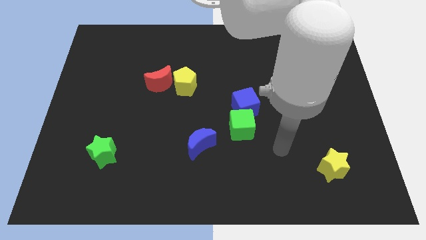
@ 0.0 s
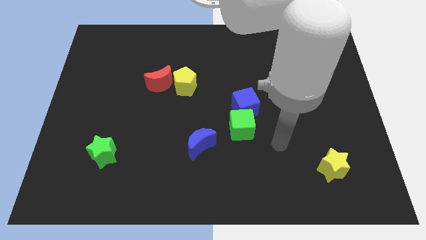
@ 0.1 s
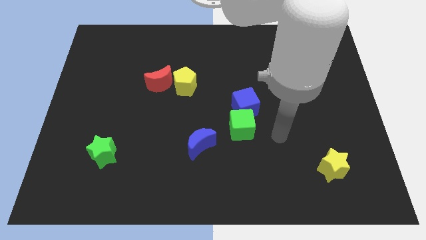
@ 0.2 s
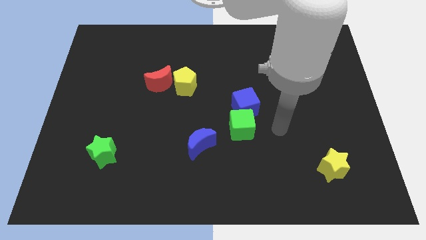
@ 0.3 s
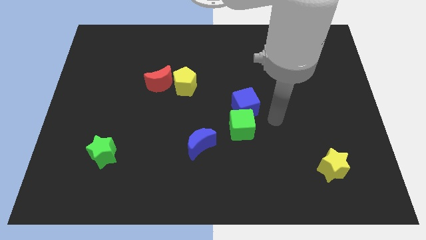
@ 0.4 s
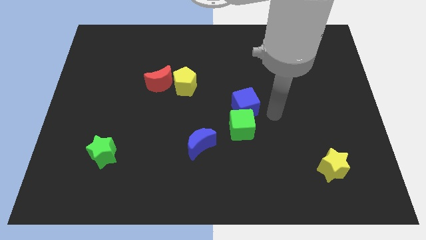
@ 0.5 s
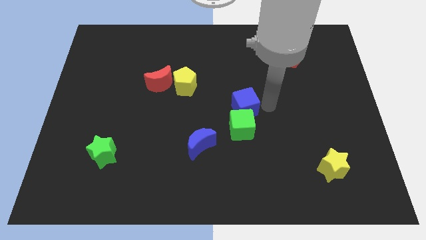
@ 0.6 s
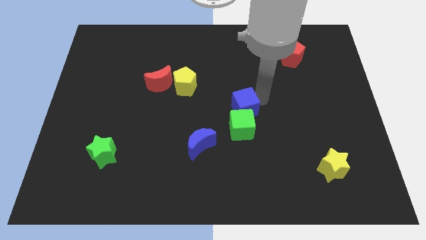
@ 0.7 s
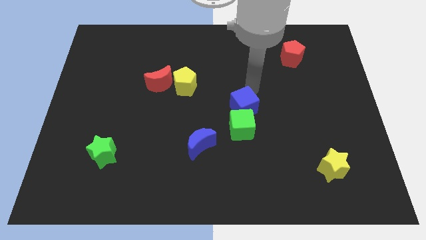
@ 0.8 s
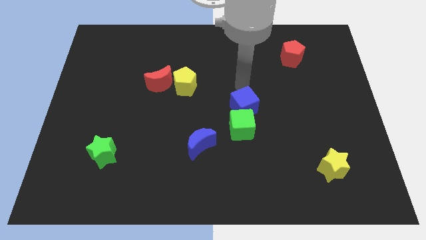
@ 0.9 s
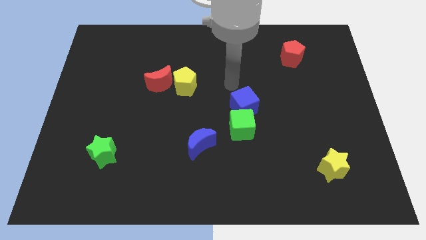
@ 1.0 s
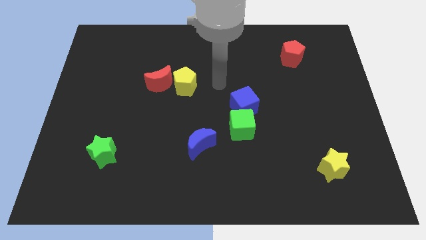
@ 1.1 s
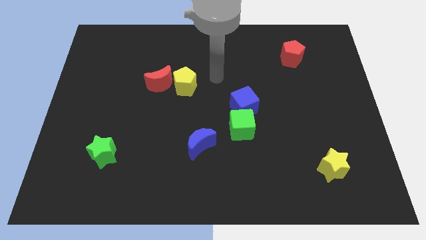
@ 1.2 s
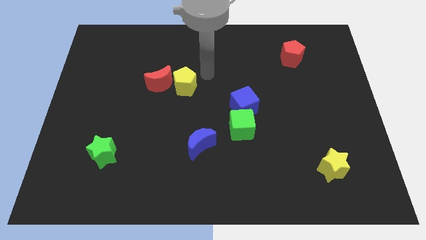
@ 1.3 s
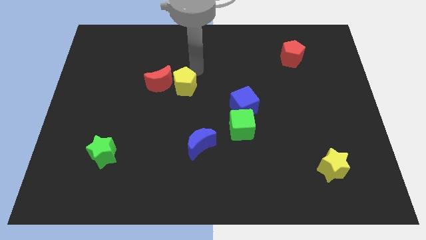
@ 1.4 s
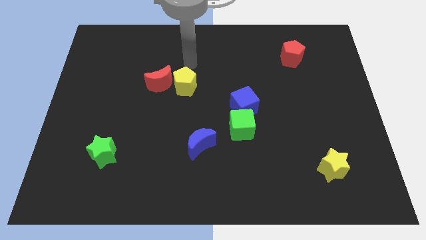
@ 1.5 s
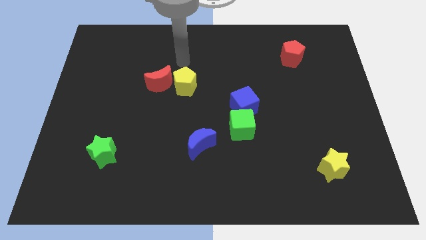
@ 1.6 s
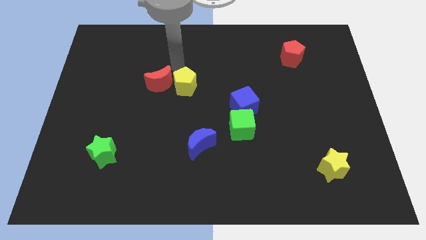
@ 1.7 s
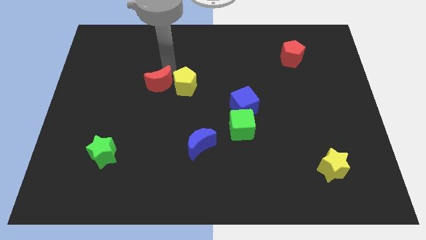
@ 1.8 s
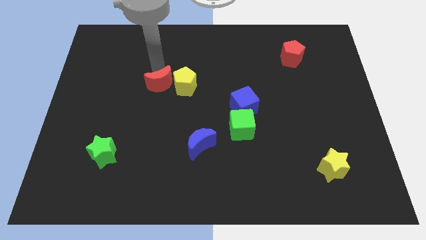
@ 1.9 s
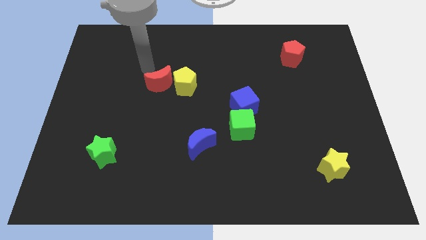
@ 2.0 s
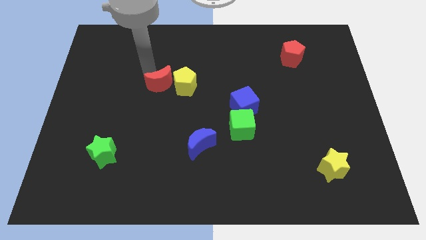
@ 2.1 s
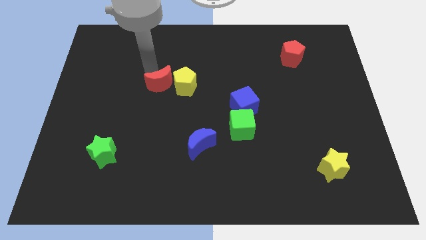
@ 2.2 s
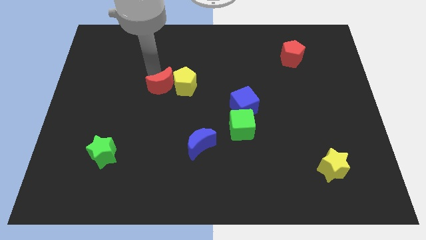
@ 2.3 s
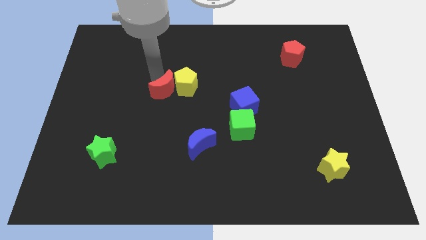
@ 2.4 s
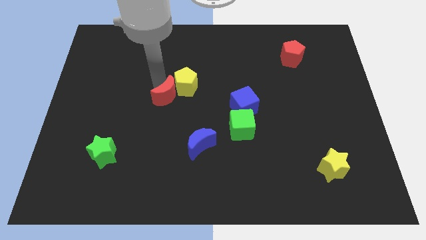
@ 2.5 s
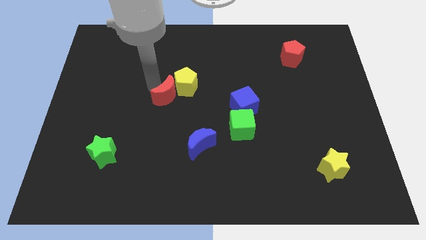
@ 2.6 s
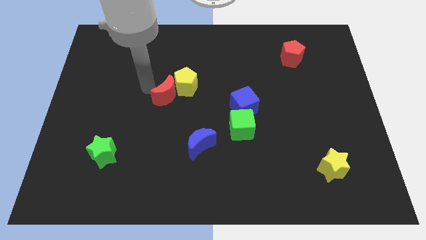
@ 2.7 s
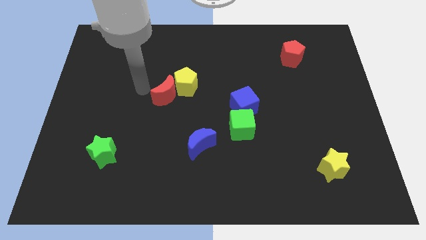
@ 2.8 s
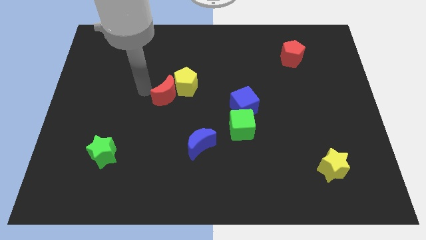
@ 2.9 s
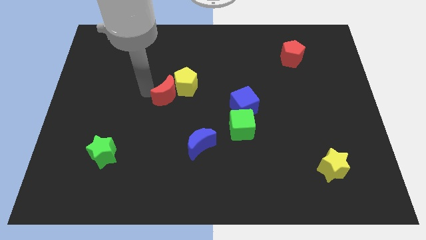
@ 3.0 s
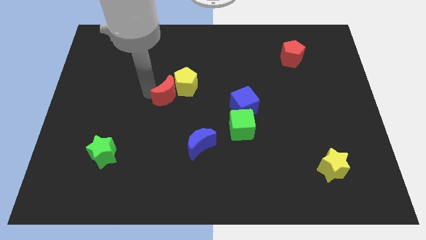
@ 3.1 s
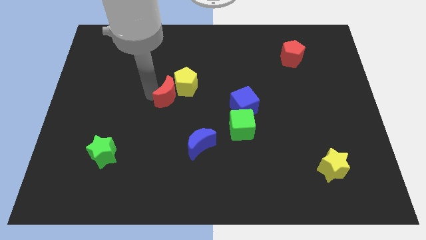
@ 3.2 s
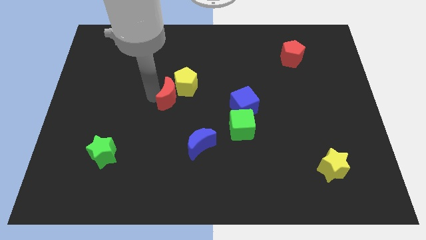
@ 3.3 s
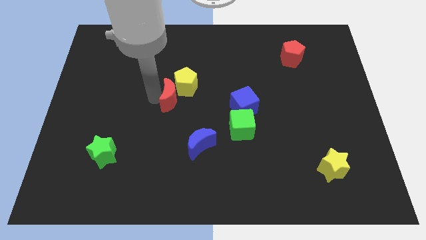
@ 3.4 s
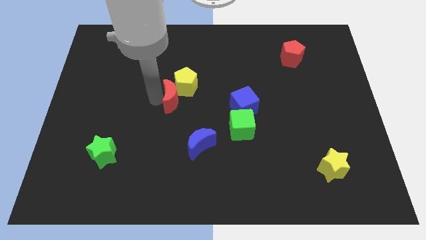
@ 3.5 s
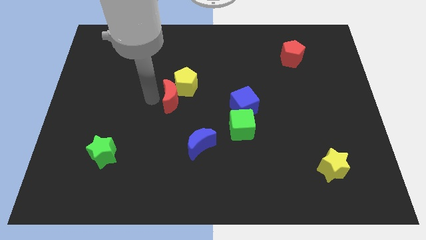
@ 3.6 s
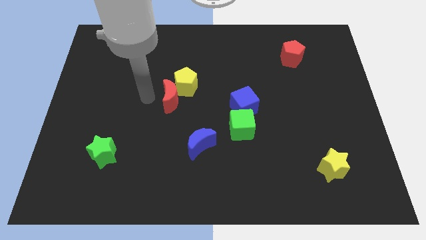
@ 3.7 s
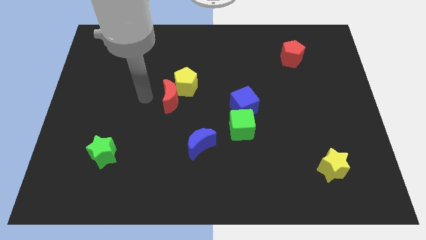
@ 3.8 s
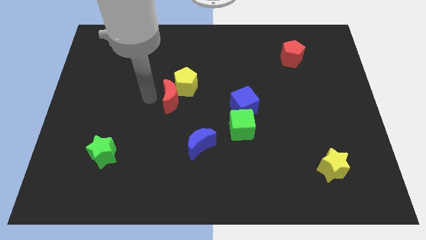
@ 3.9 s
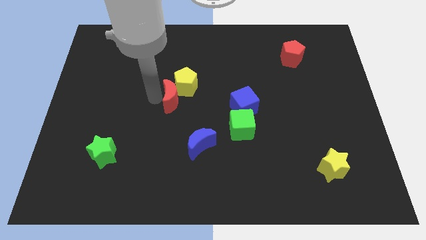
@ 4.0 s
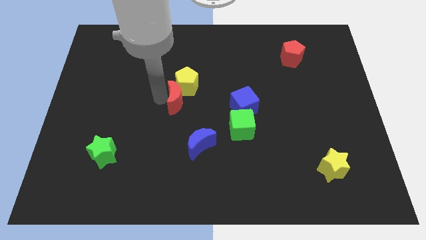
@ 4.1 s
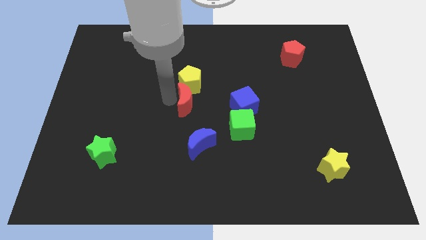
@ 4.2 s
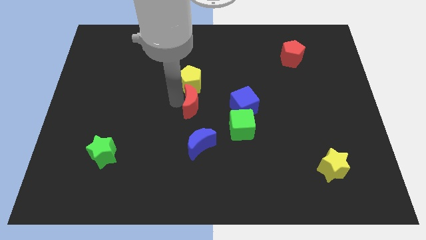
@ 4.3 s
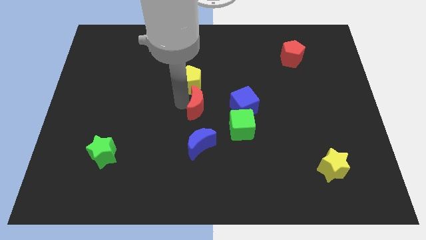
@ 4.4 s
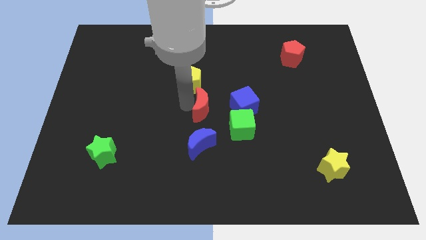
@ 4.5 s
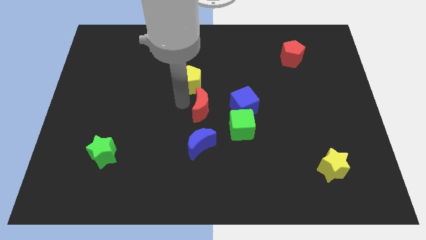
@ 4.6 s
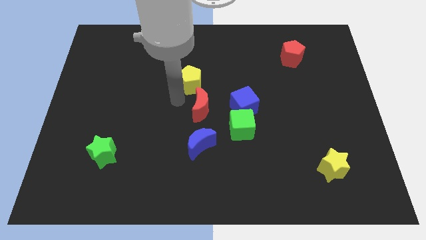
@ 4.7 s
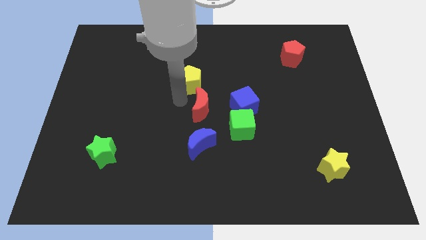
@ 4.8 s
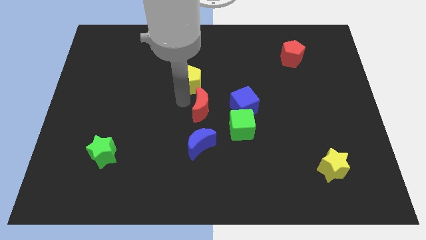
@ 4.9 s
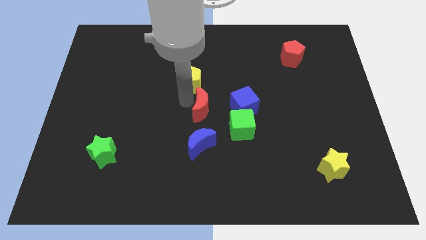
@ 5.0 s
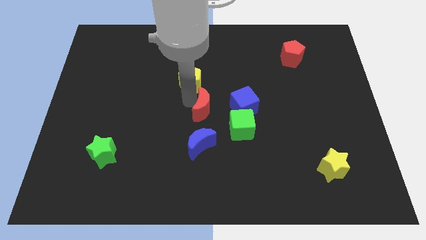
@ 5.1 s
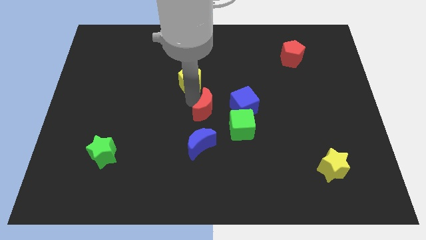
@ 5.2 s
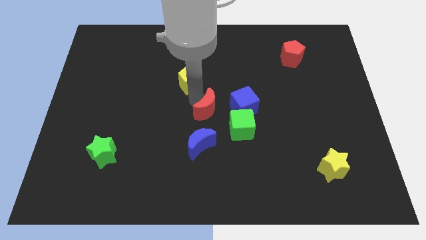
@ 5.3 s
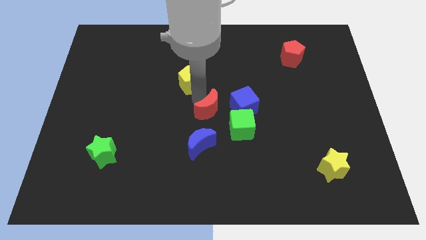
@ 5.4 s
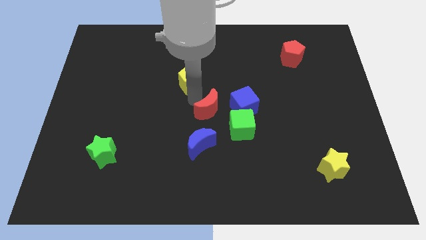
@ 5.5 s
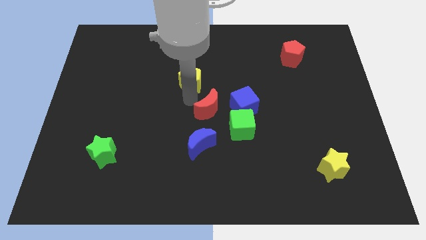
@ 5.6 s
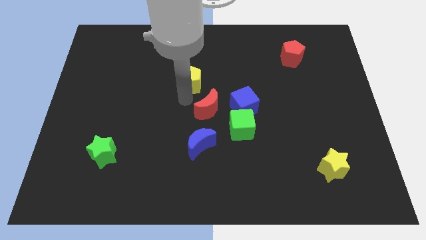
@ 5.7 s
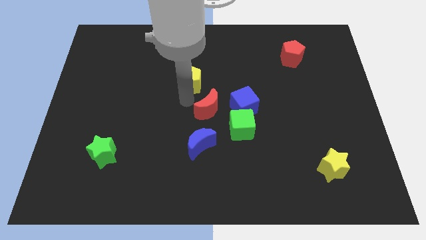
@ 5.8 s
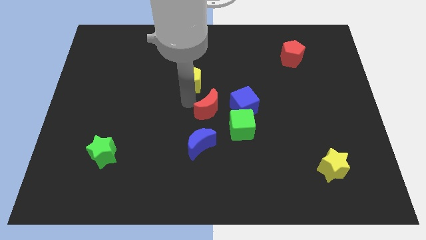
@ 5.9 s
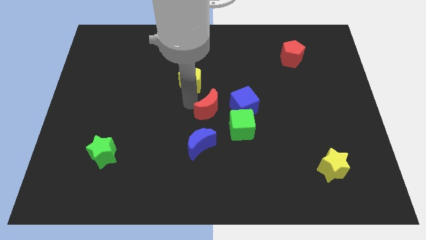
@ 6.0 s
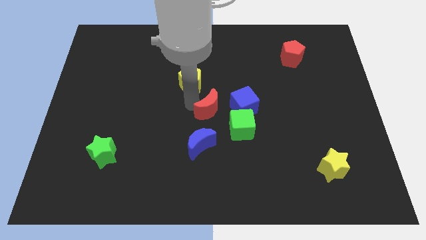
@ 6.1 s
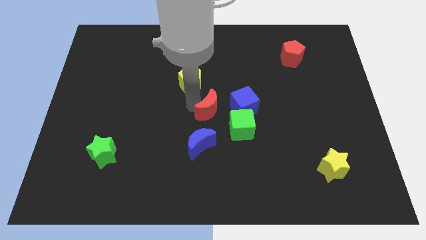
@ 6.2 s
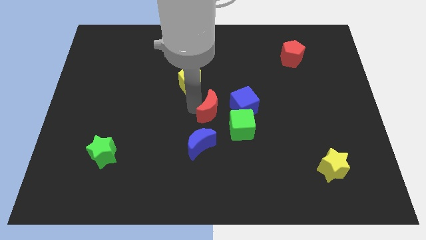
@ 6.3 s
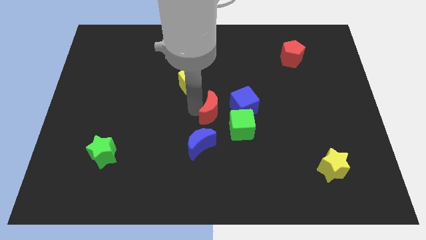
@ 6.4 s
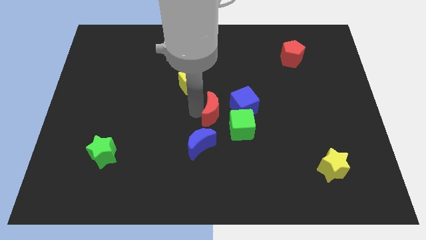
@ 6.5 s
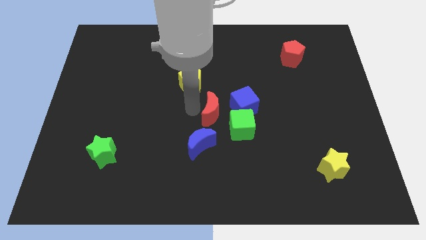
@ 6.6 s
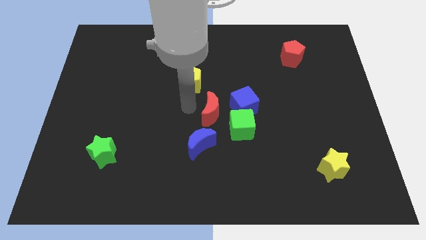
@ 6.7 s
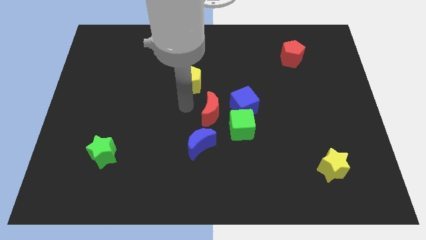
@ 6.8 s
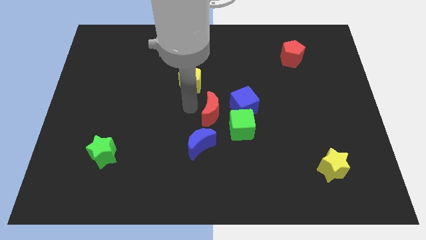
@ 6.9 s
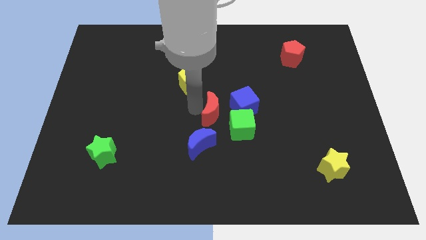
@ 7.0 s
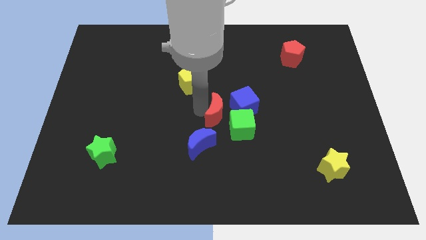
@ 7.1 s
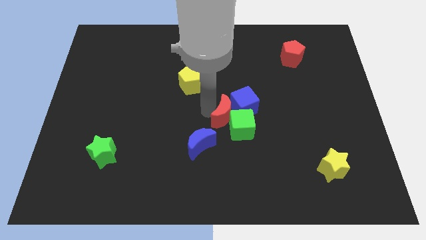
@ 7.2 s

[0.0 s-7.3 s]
put the red moon next to the green cube
